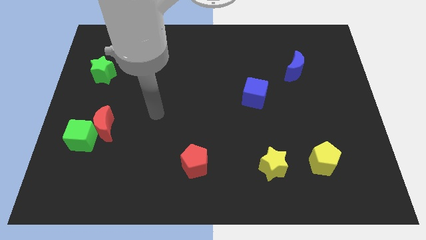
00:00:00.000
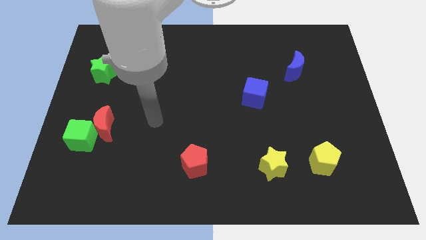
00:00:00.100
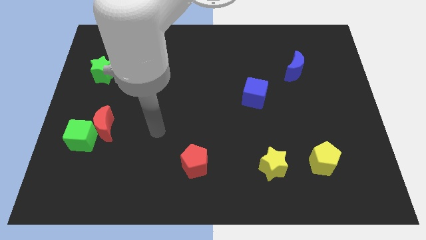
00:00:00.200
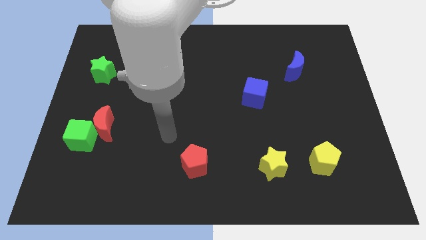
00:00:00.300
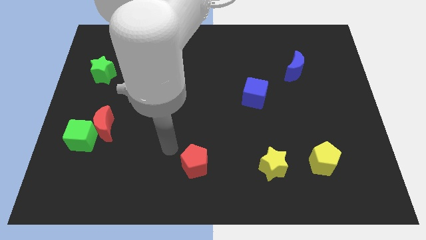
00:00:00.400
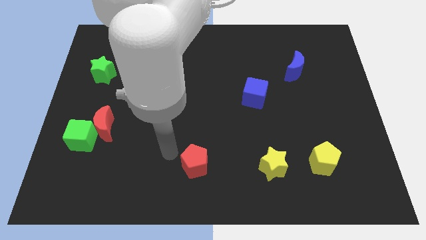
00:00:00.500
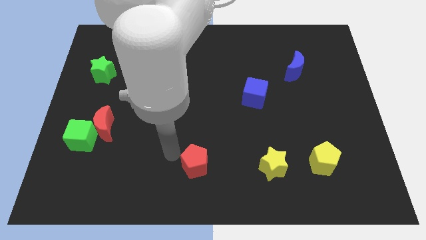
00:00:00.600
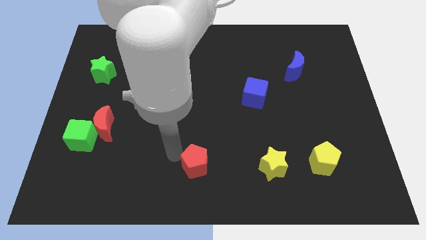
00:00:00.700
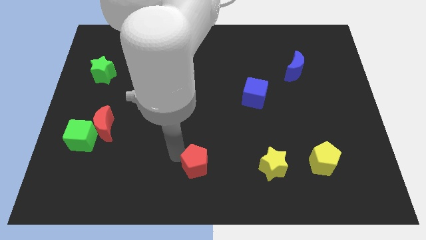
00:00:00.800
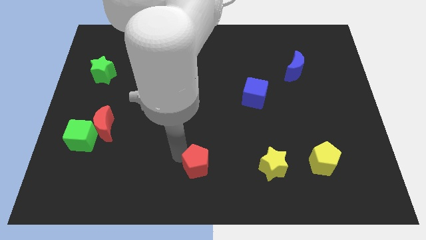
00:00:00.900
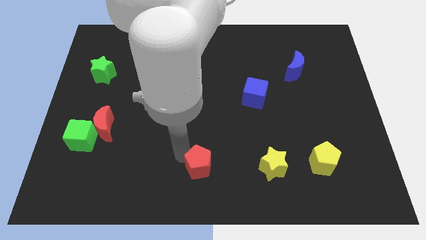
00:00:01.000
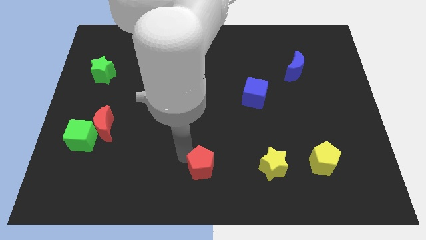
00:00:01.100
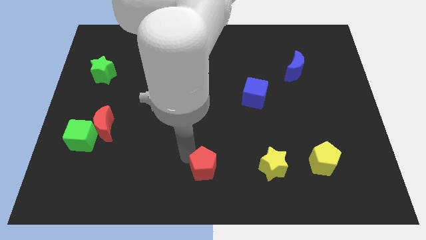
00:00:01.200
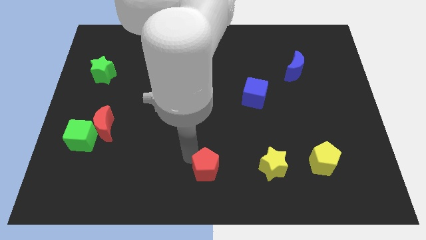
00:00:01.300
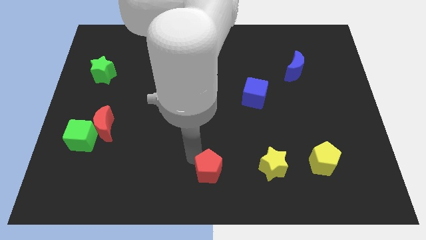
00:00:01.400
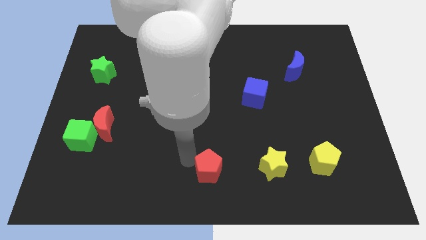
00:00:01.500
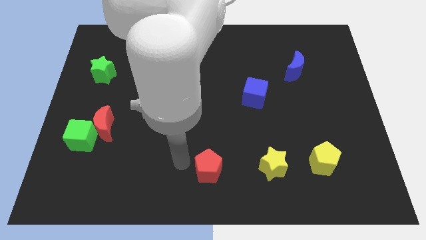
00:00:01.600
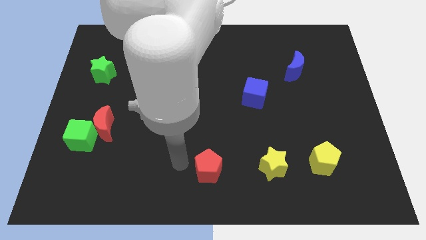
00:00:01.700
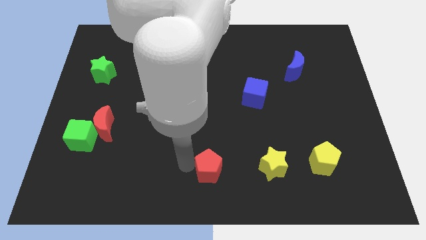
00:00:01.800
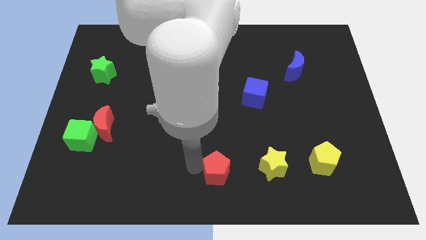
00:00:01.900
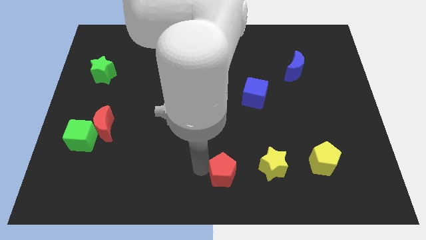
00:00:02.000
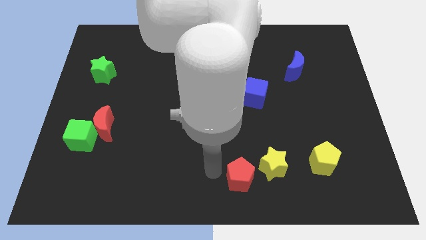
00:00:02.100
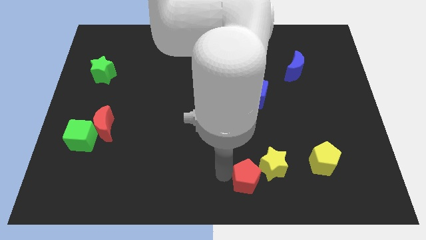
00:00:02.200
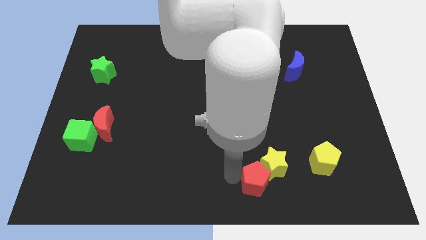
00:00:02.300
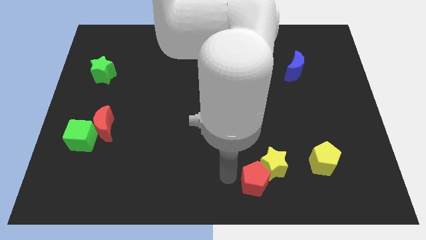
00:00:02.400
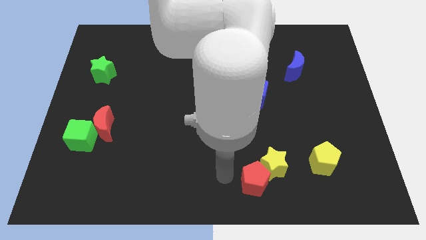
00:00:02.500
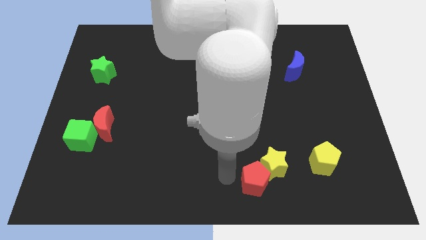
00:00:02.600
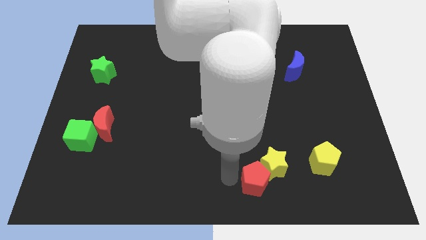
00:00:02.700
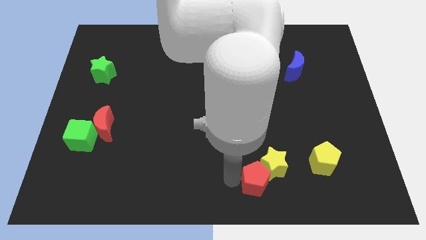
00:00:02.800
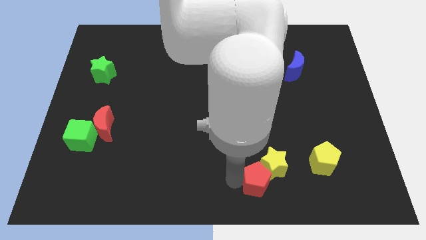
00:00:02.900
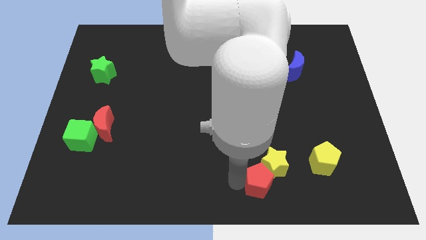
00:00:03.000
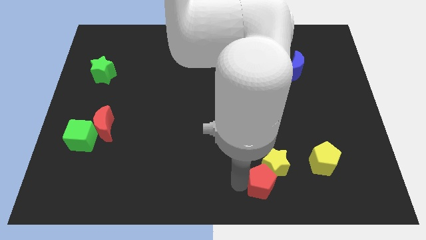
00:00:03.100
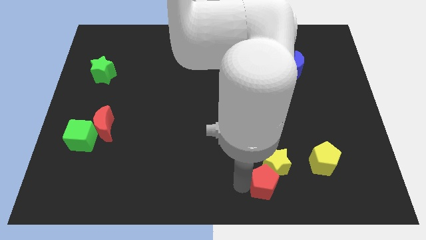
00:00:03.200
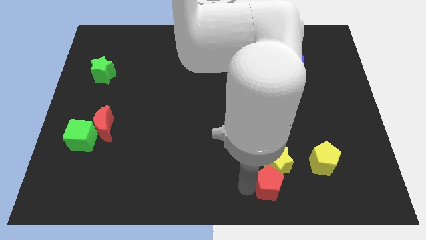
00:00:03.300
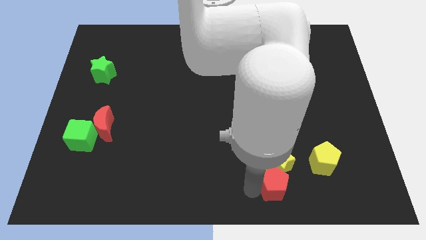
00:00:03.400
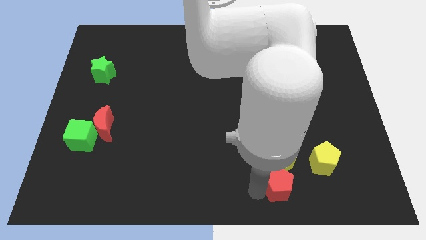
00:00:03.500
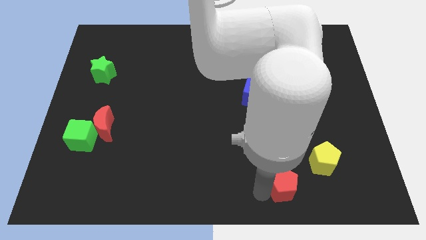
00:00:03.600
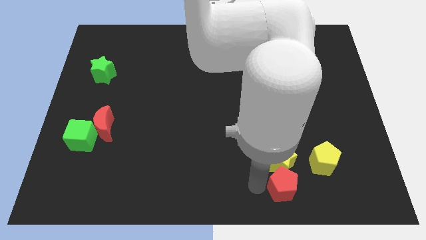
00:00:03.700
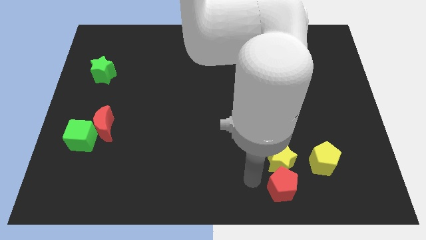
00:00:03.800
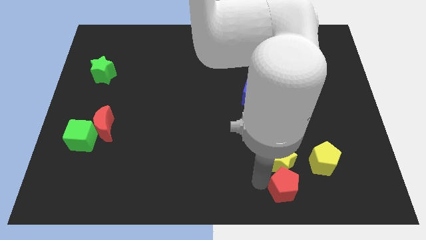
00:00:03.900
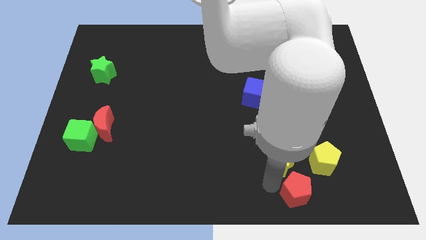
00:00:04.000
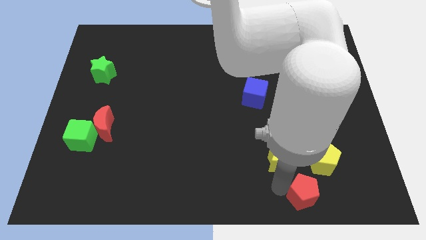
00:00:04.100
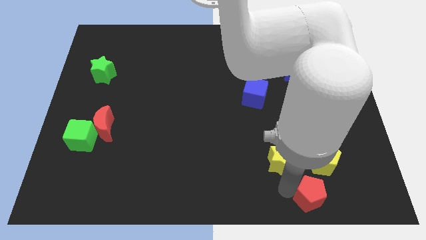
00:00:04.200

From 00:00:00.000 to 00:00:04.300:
move the red pentagon right

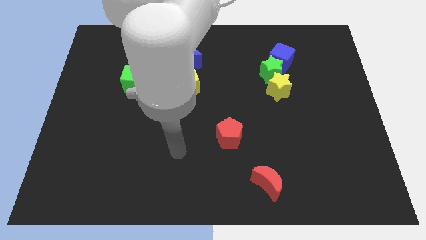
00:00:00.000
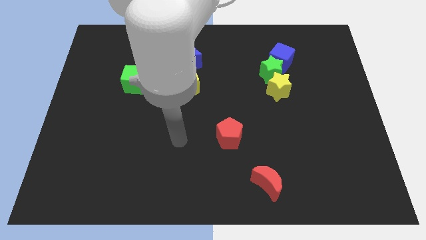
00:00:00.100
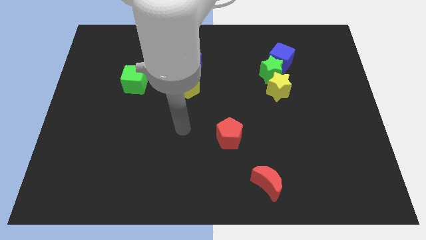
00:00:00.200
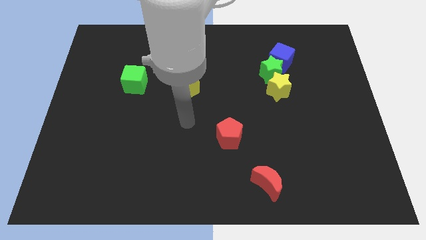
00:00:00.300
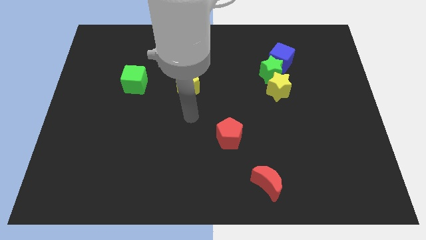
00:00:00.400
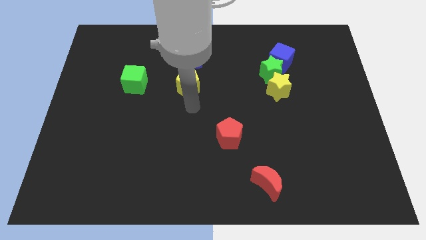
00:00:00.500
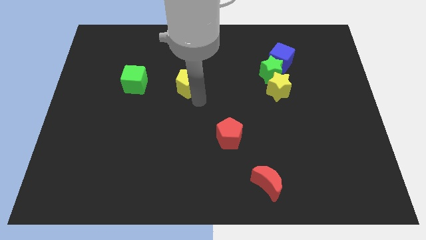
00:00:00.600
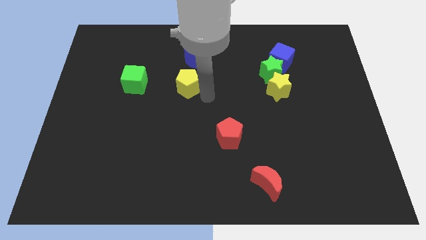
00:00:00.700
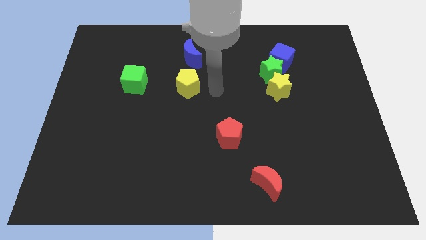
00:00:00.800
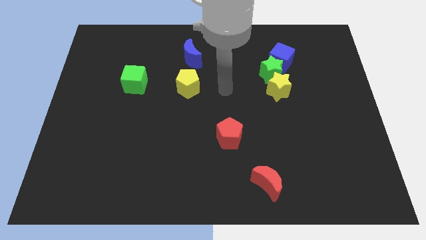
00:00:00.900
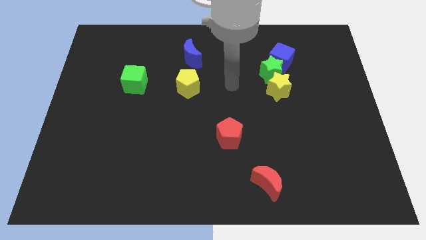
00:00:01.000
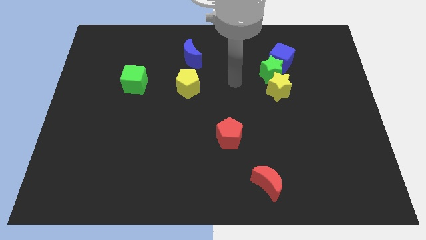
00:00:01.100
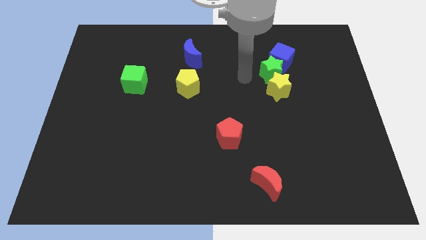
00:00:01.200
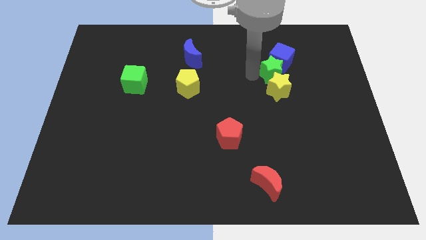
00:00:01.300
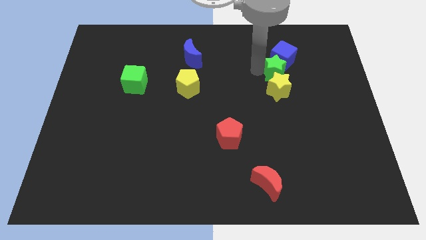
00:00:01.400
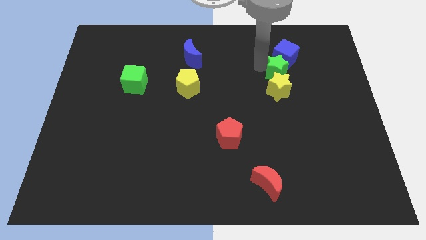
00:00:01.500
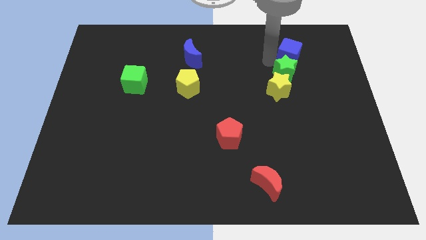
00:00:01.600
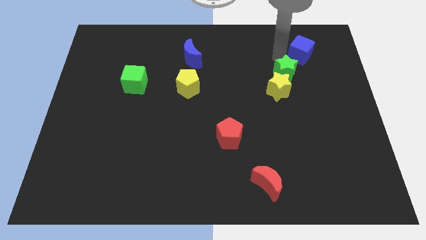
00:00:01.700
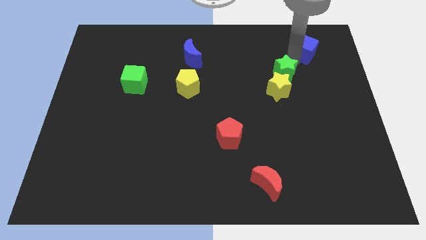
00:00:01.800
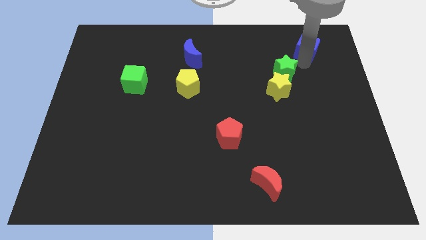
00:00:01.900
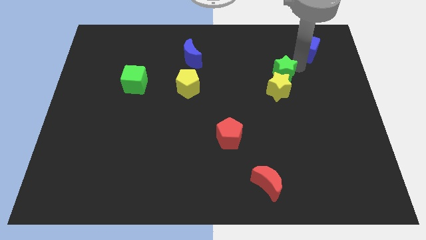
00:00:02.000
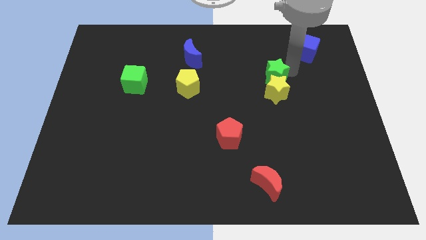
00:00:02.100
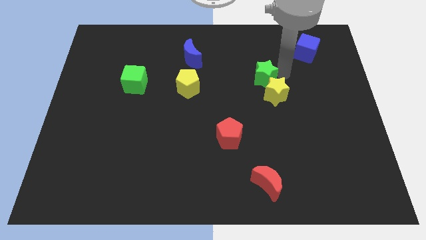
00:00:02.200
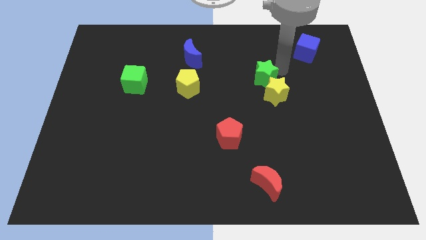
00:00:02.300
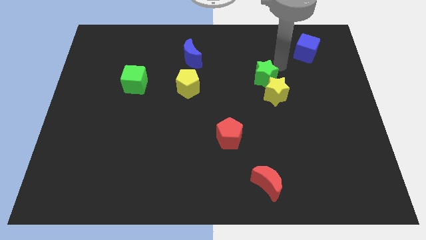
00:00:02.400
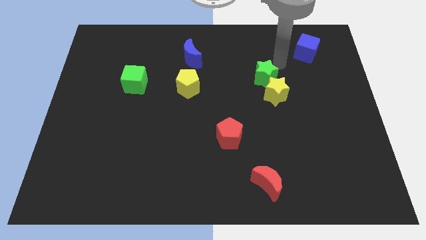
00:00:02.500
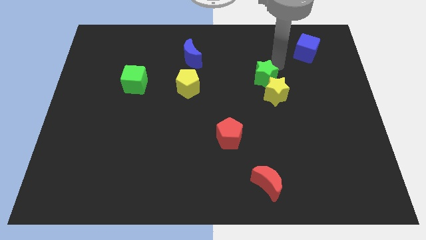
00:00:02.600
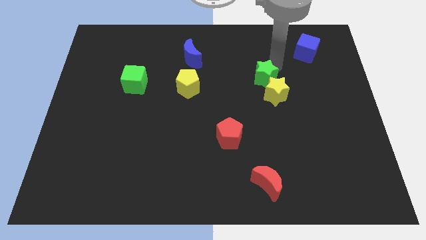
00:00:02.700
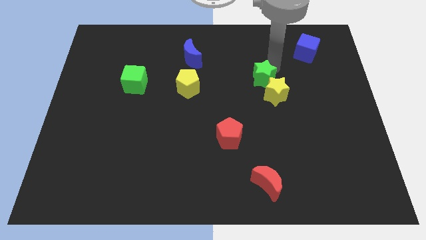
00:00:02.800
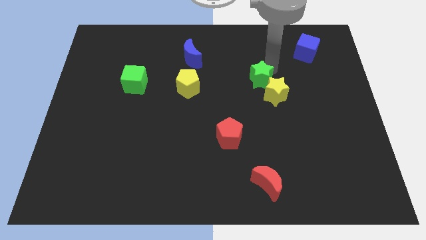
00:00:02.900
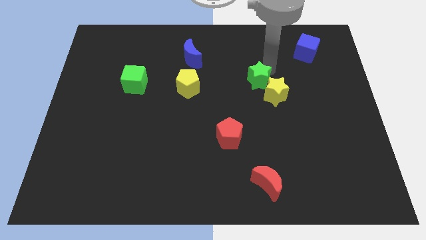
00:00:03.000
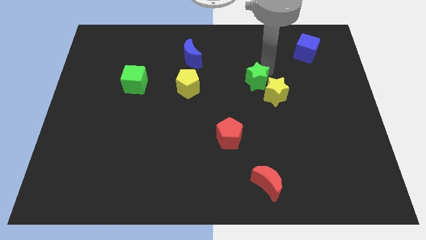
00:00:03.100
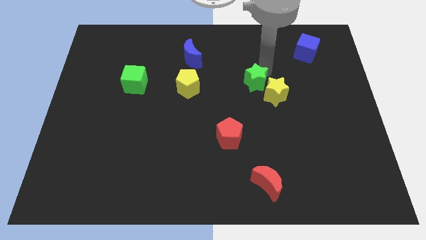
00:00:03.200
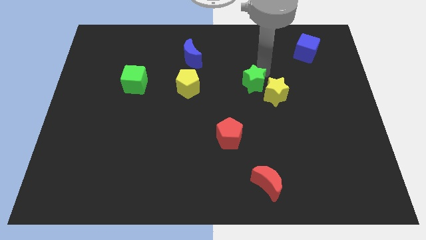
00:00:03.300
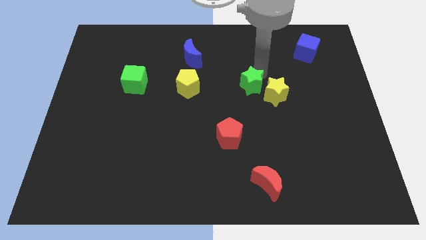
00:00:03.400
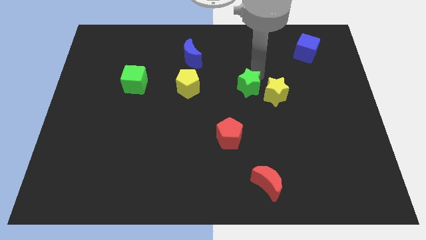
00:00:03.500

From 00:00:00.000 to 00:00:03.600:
move the green star a little downwards and left diagonally
